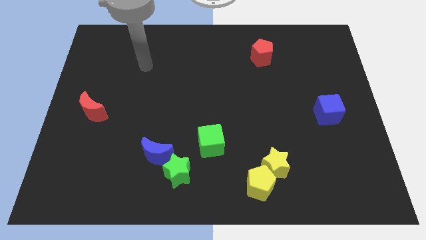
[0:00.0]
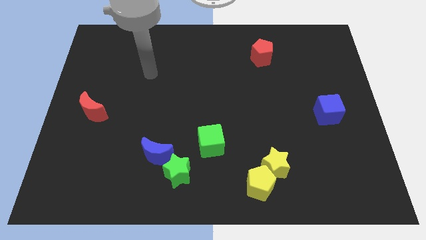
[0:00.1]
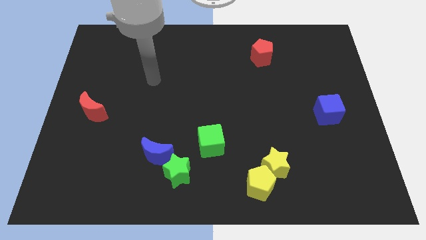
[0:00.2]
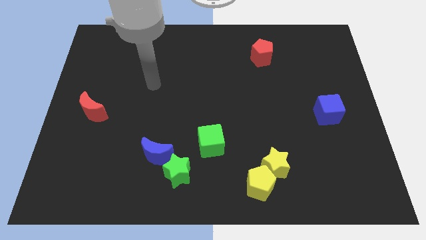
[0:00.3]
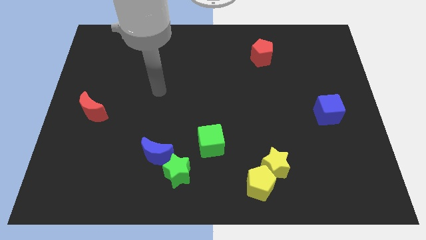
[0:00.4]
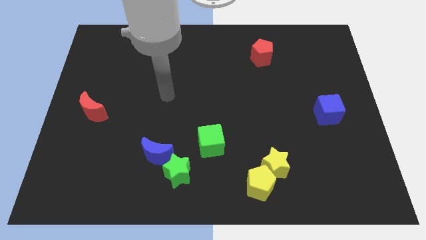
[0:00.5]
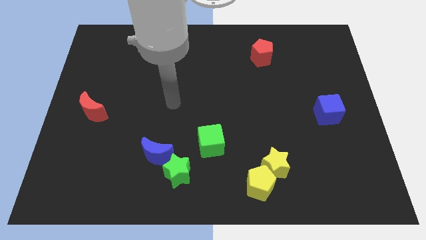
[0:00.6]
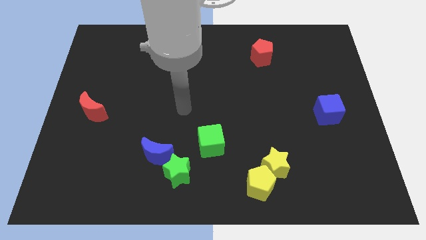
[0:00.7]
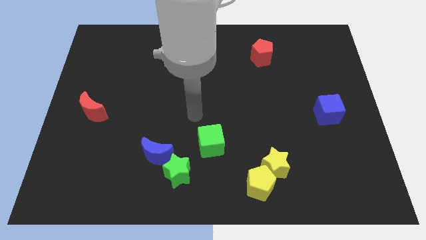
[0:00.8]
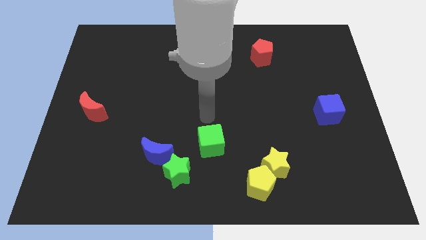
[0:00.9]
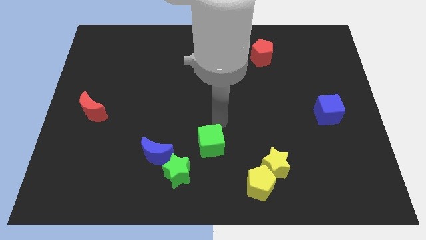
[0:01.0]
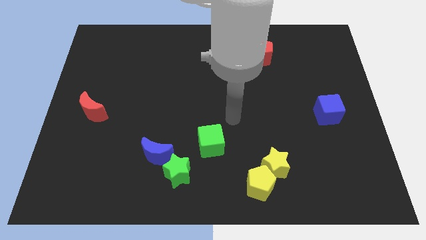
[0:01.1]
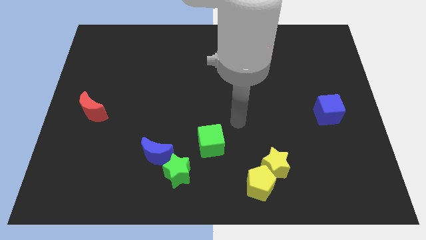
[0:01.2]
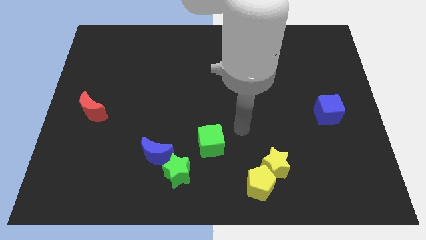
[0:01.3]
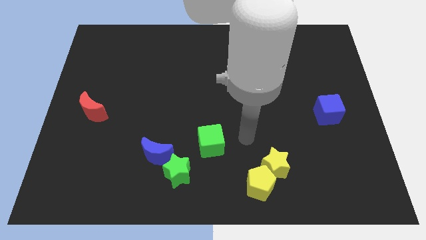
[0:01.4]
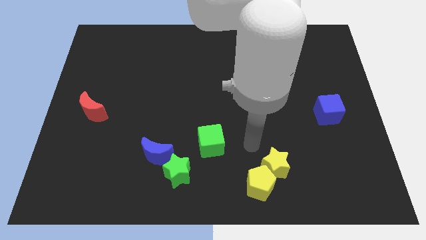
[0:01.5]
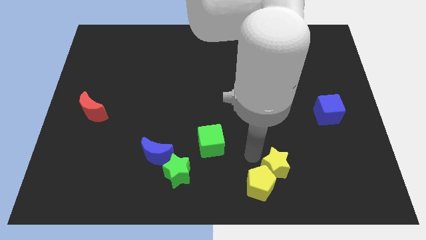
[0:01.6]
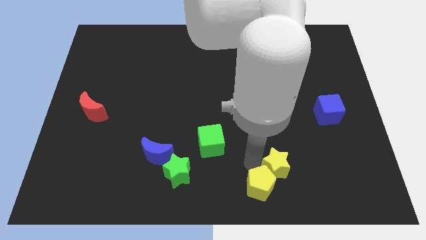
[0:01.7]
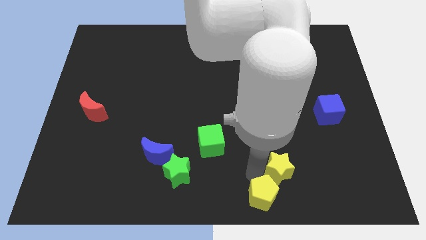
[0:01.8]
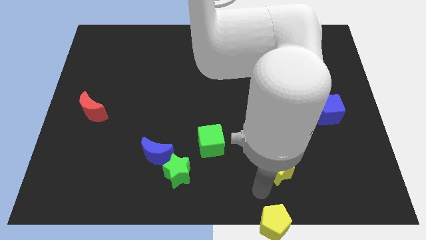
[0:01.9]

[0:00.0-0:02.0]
separate the yellow star from the yellow pentagon

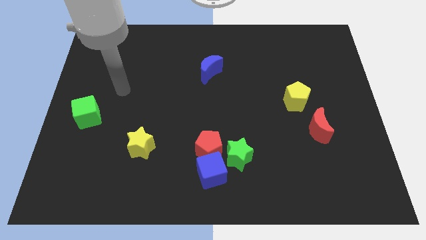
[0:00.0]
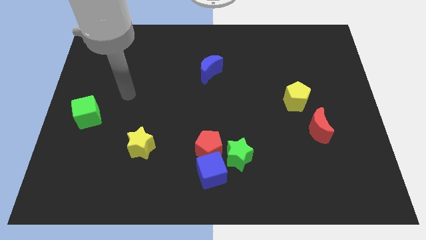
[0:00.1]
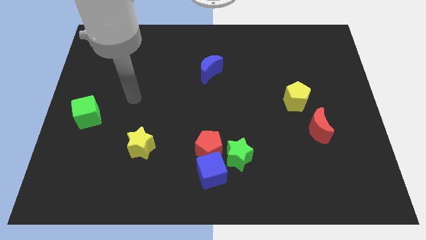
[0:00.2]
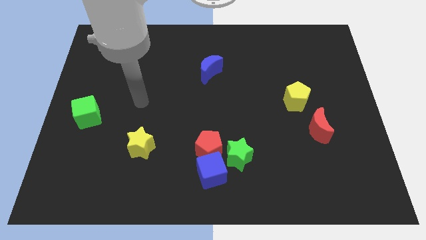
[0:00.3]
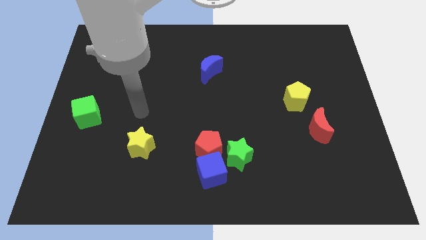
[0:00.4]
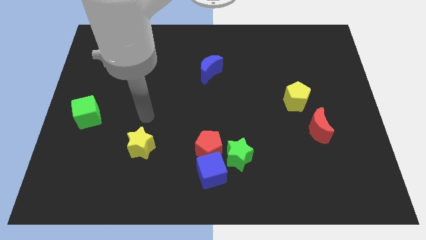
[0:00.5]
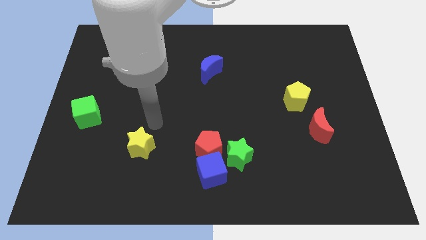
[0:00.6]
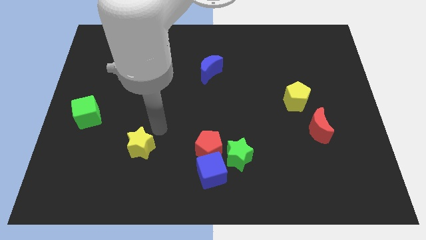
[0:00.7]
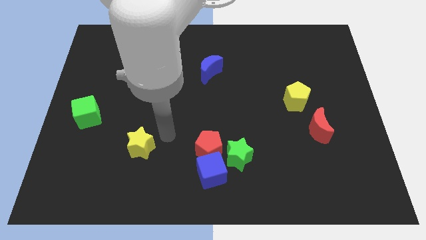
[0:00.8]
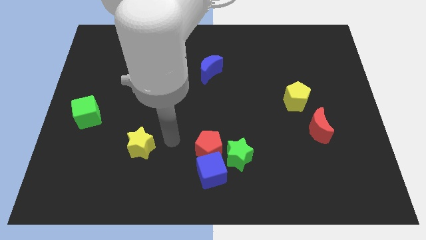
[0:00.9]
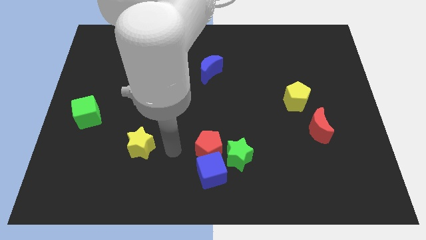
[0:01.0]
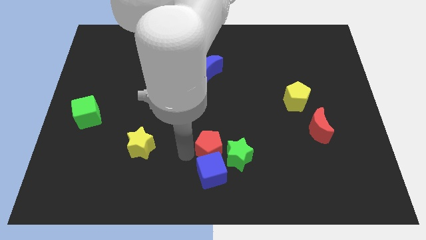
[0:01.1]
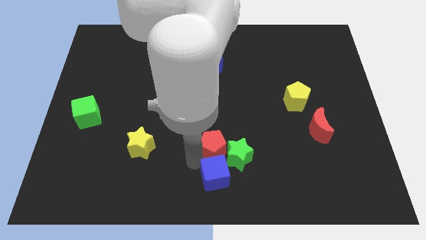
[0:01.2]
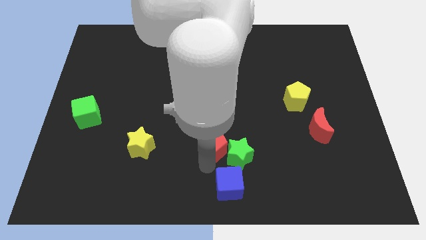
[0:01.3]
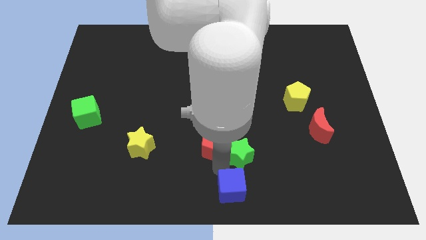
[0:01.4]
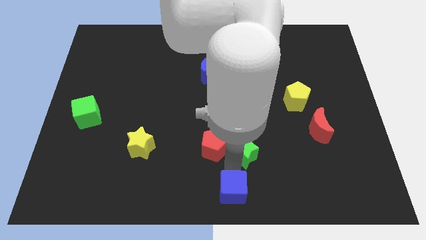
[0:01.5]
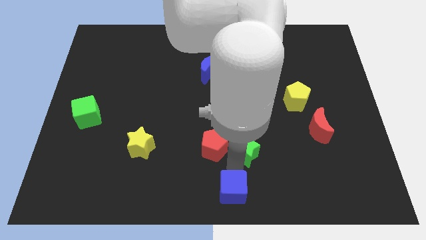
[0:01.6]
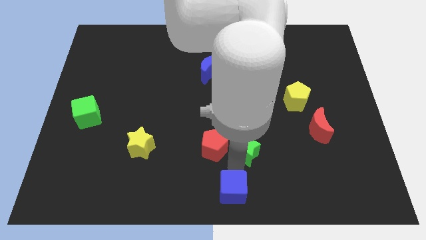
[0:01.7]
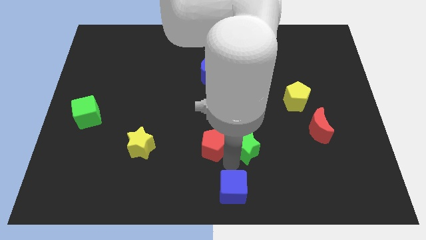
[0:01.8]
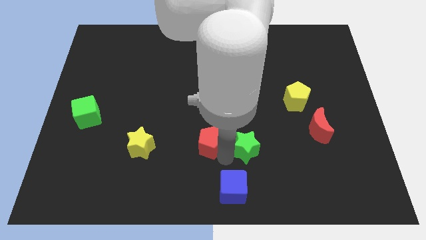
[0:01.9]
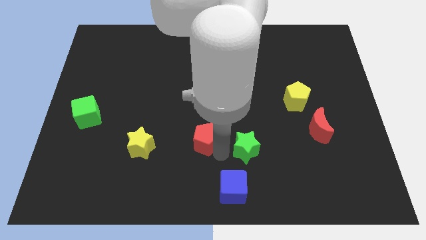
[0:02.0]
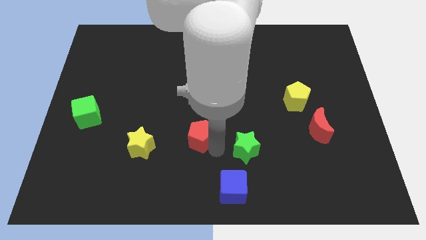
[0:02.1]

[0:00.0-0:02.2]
move the red pentagon away from the blue cube and green star

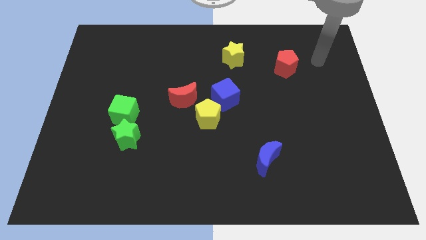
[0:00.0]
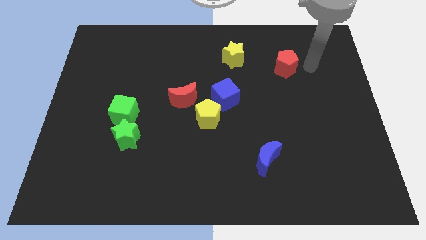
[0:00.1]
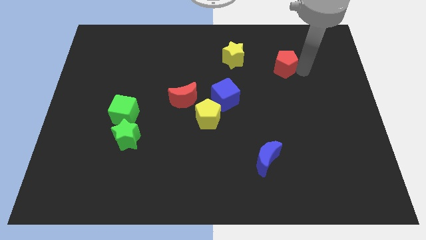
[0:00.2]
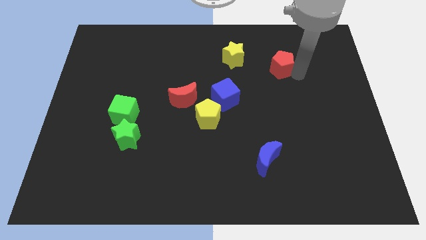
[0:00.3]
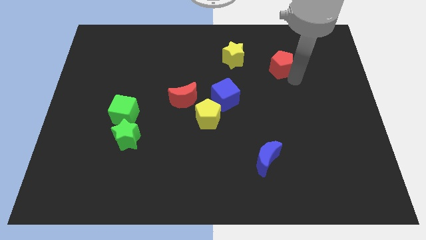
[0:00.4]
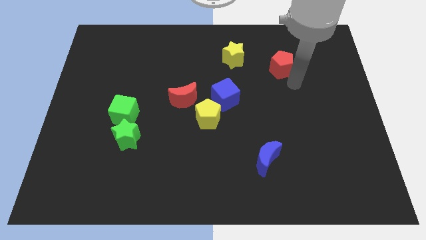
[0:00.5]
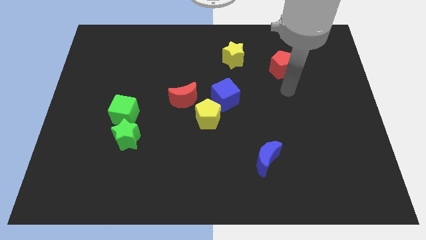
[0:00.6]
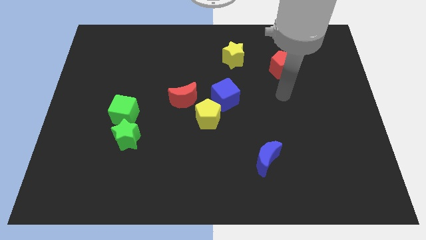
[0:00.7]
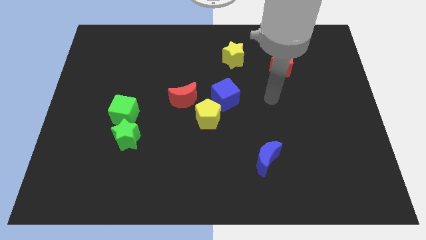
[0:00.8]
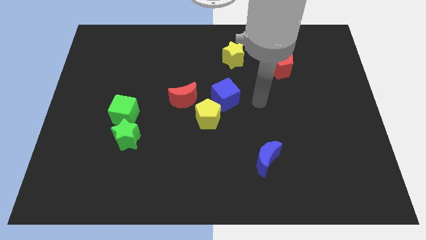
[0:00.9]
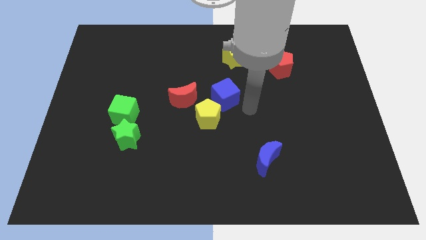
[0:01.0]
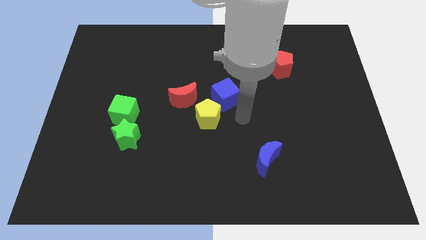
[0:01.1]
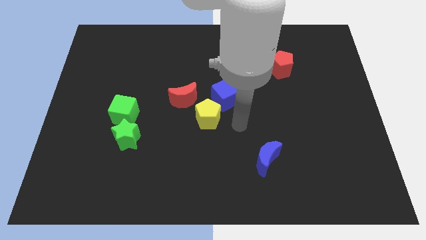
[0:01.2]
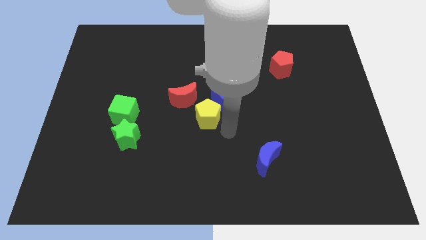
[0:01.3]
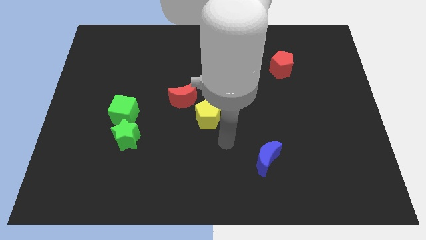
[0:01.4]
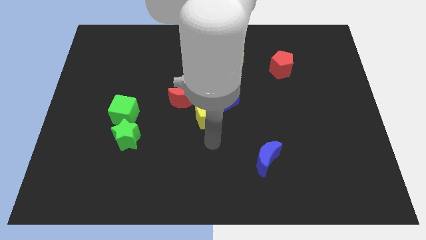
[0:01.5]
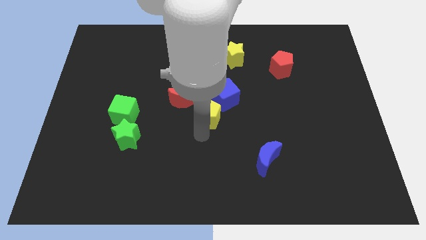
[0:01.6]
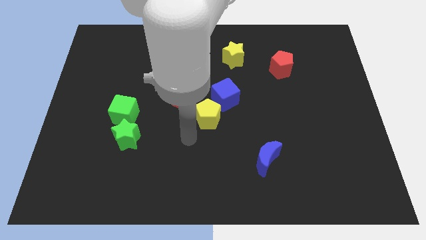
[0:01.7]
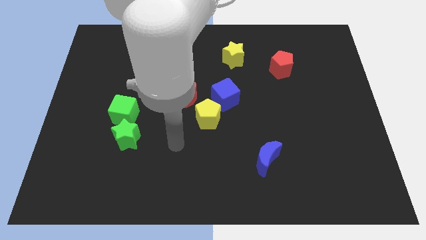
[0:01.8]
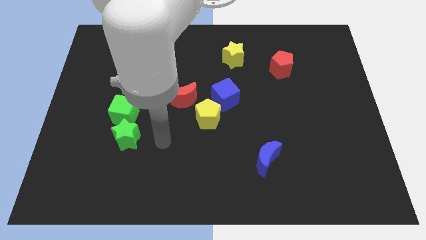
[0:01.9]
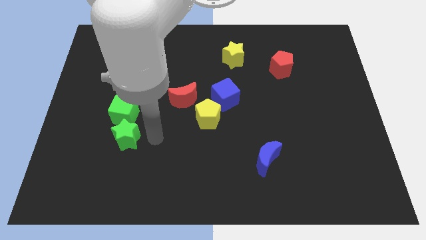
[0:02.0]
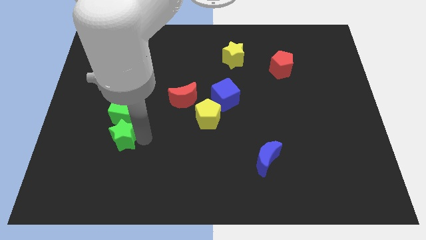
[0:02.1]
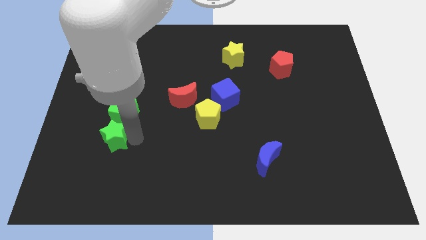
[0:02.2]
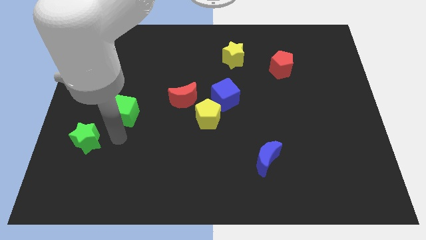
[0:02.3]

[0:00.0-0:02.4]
move the green cube away from the green star

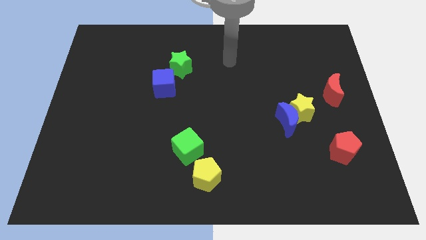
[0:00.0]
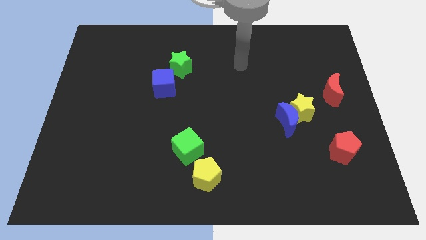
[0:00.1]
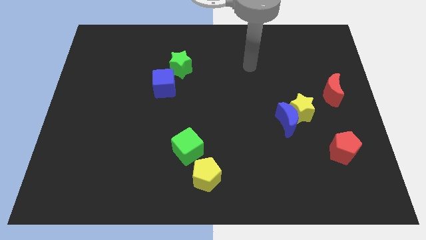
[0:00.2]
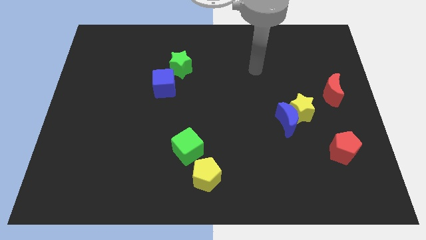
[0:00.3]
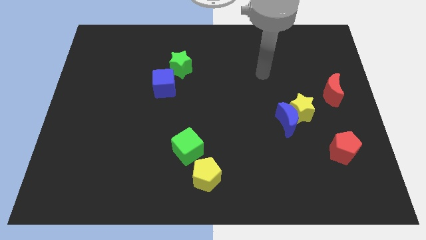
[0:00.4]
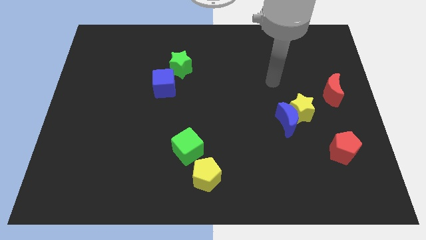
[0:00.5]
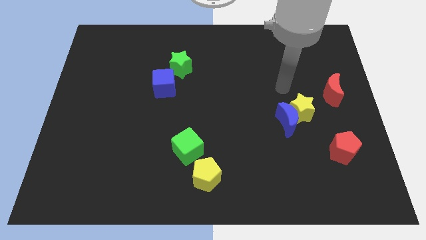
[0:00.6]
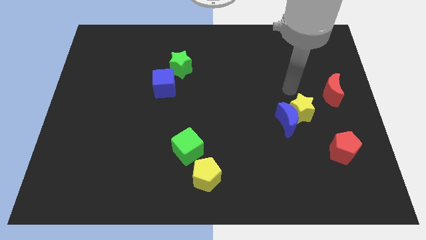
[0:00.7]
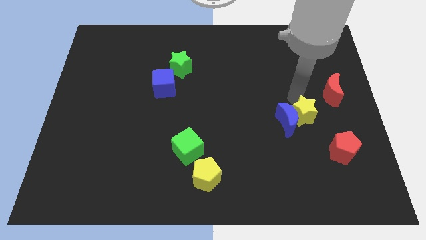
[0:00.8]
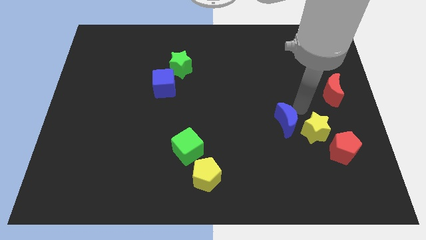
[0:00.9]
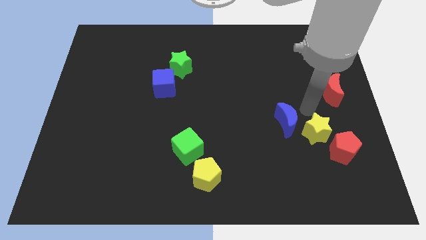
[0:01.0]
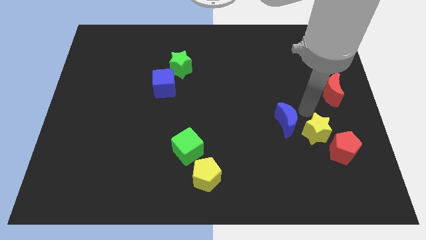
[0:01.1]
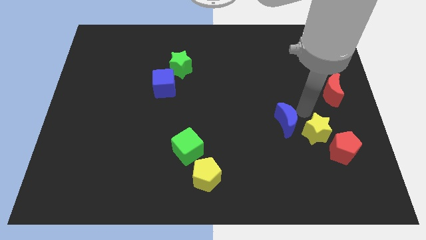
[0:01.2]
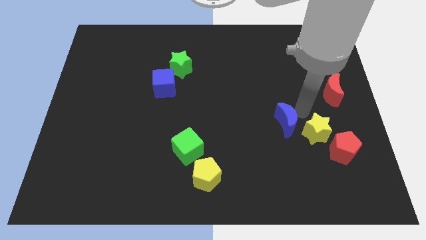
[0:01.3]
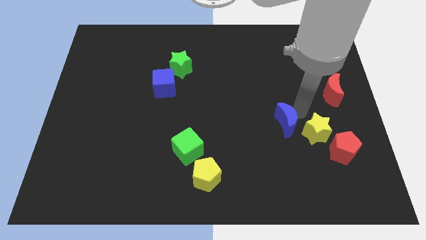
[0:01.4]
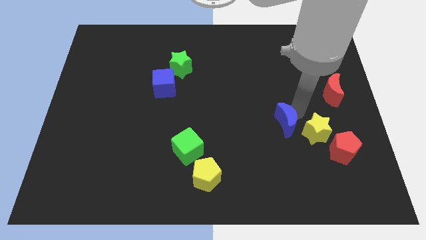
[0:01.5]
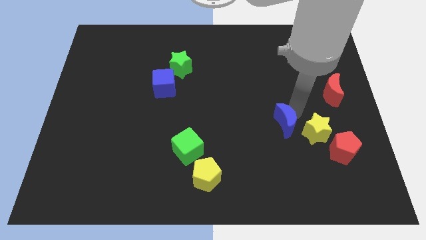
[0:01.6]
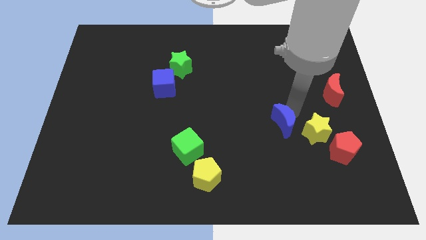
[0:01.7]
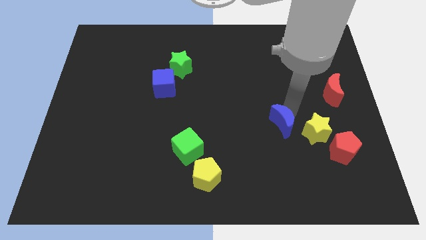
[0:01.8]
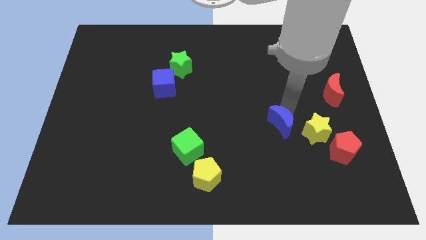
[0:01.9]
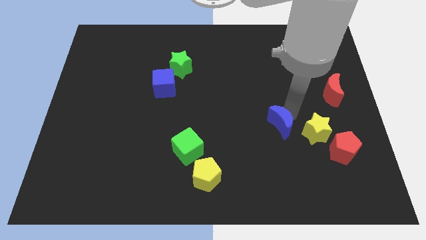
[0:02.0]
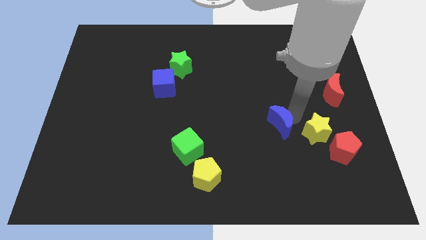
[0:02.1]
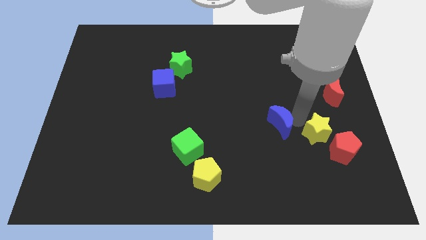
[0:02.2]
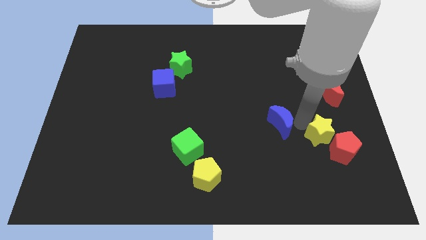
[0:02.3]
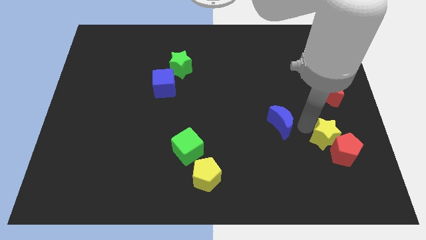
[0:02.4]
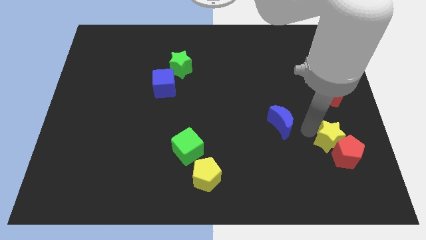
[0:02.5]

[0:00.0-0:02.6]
separate the blue moon from the yellow star

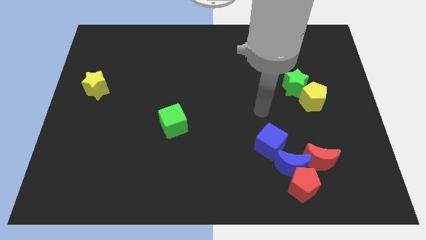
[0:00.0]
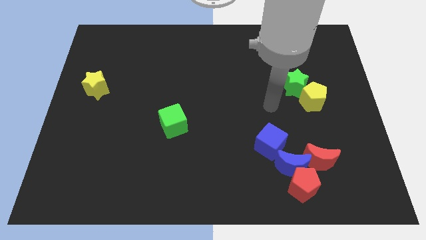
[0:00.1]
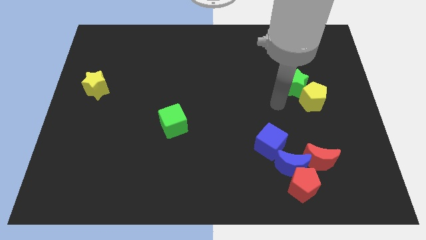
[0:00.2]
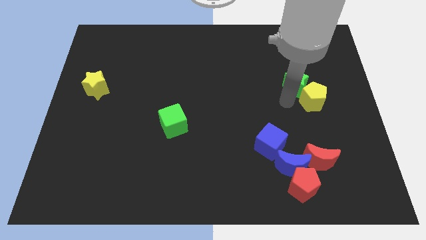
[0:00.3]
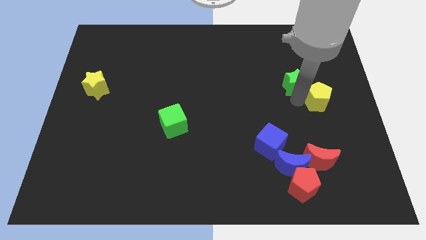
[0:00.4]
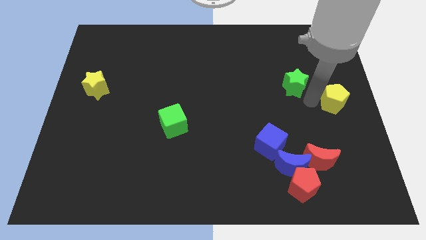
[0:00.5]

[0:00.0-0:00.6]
move the green star away from the yellow pentagon
